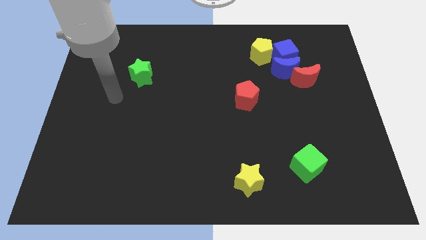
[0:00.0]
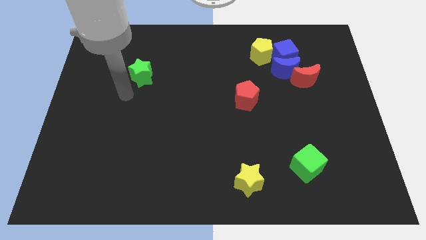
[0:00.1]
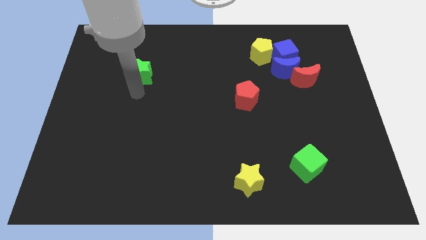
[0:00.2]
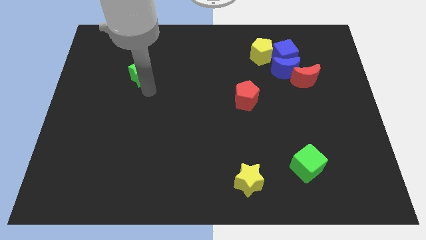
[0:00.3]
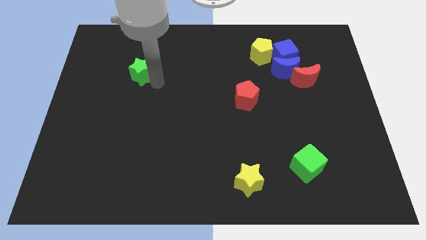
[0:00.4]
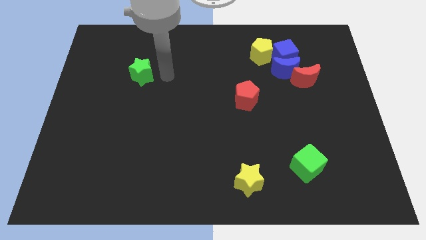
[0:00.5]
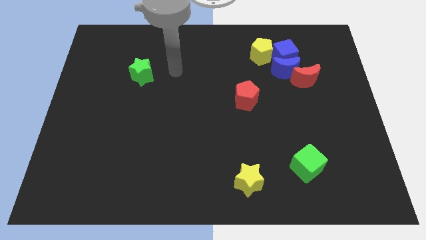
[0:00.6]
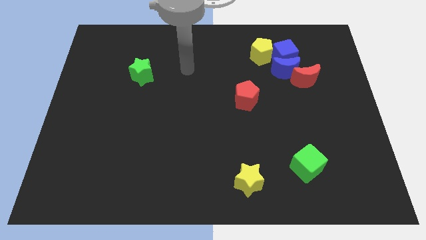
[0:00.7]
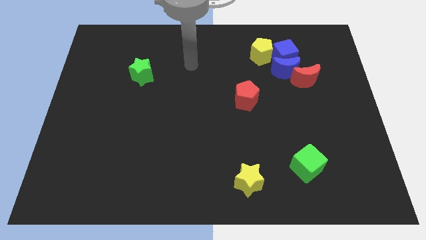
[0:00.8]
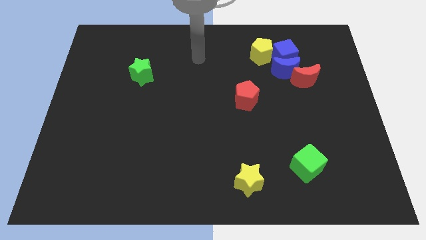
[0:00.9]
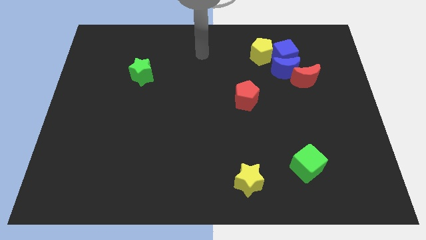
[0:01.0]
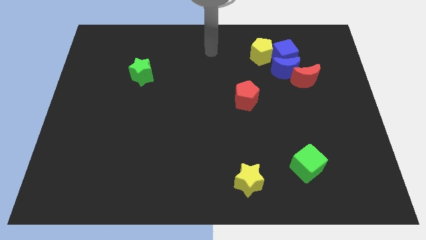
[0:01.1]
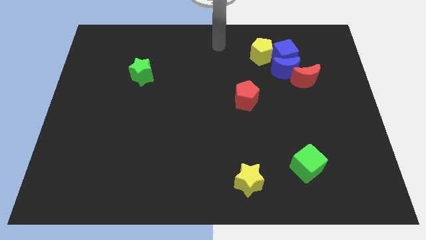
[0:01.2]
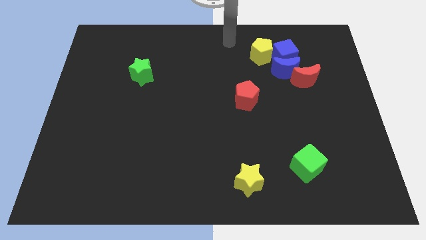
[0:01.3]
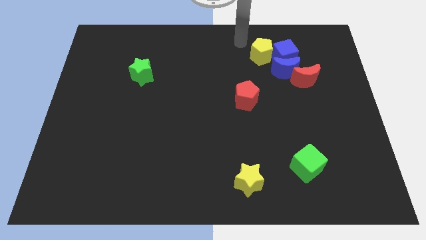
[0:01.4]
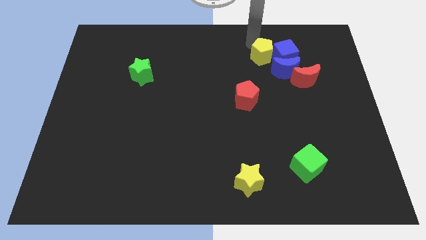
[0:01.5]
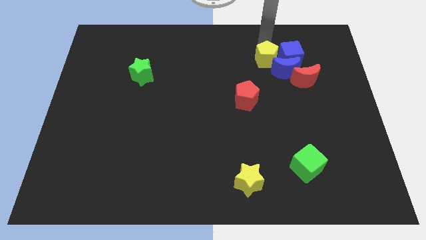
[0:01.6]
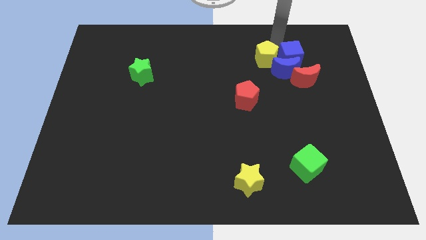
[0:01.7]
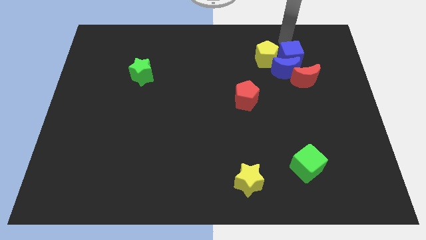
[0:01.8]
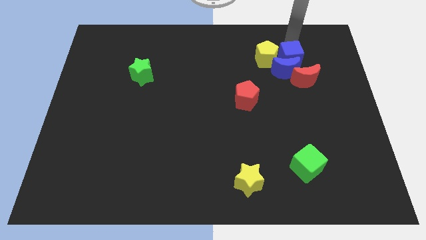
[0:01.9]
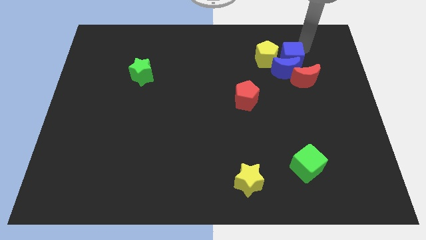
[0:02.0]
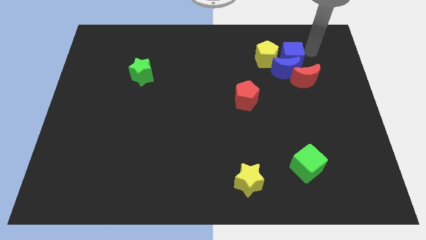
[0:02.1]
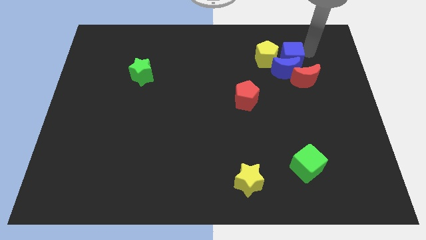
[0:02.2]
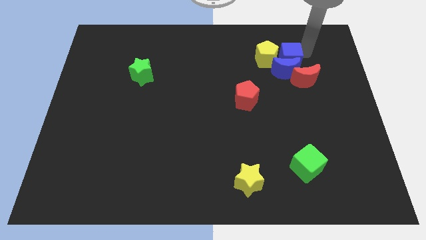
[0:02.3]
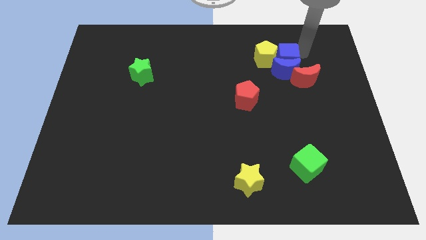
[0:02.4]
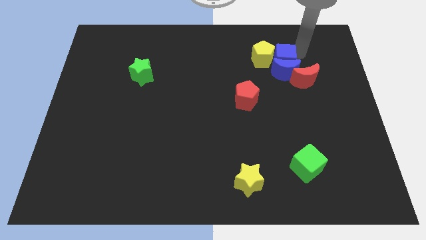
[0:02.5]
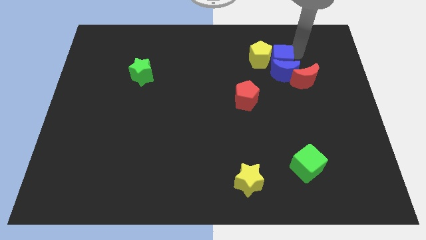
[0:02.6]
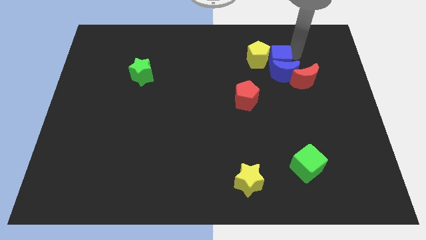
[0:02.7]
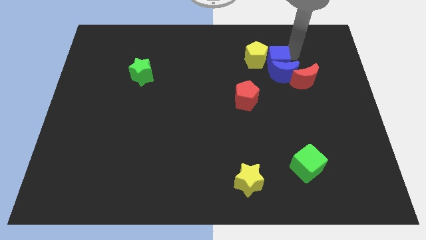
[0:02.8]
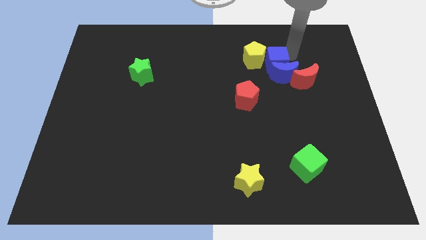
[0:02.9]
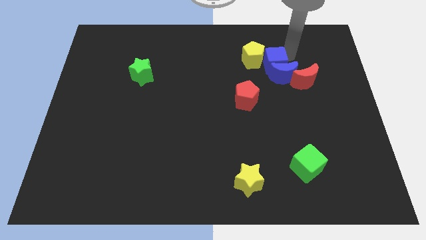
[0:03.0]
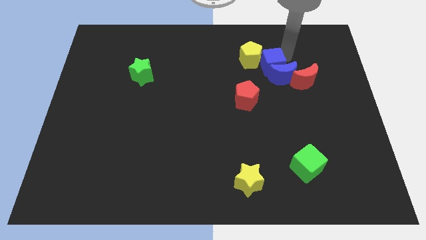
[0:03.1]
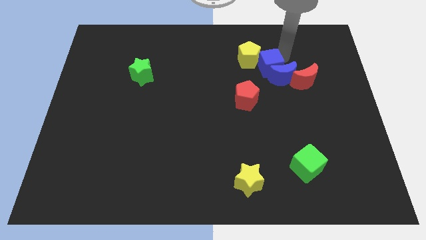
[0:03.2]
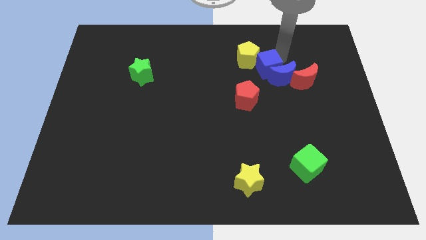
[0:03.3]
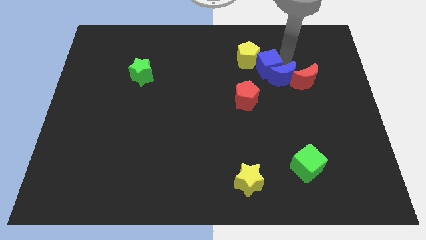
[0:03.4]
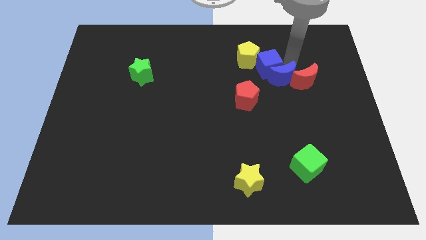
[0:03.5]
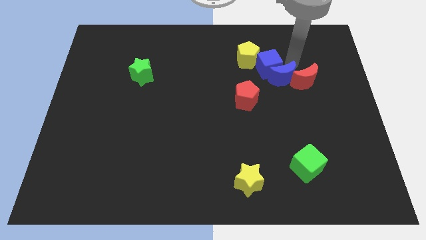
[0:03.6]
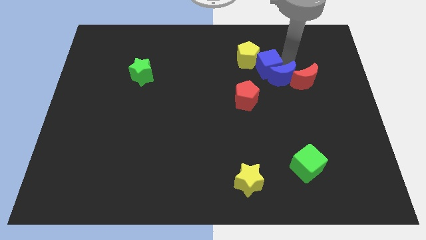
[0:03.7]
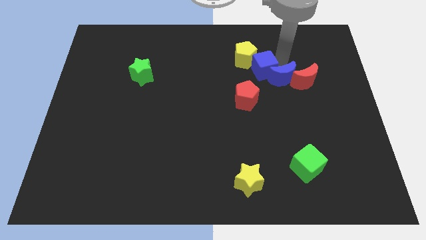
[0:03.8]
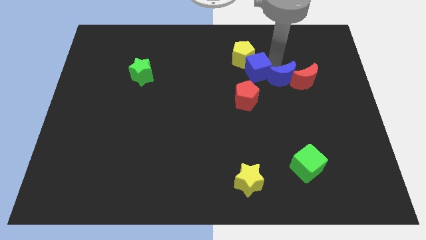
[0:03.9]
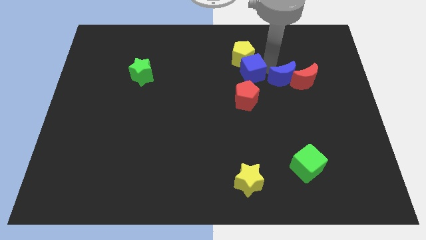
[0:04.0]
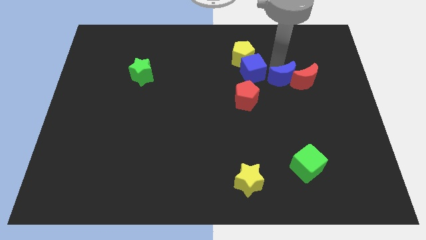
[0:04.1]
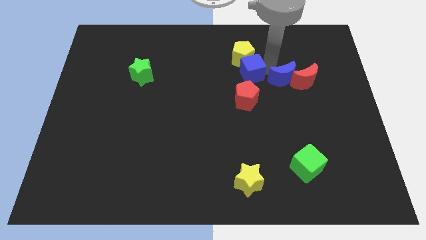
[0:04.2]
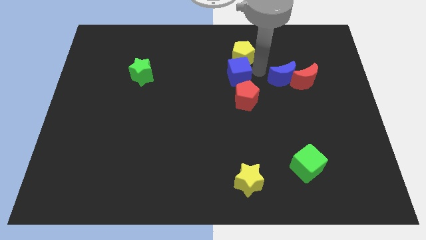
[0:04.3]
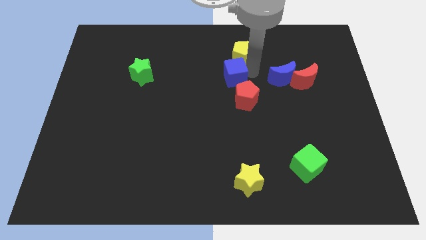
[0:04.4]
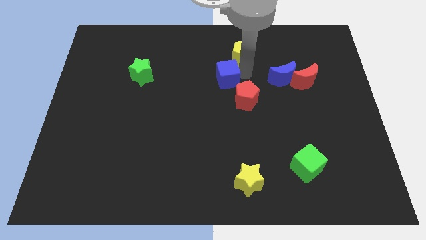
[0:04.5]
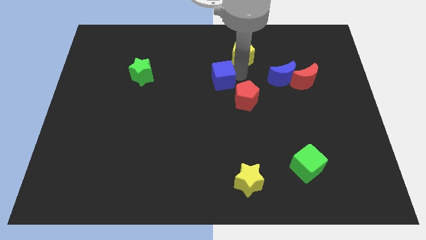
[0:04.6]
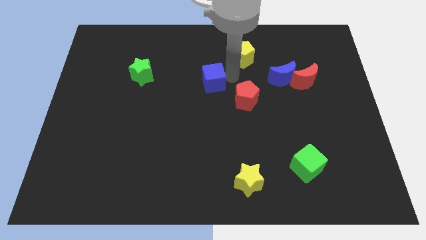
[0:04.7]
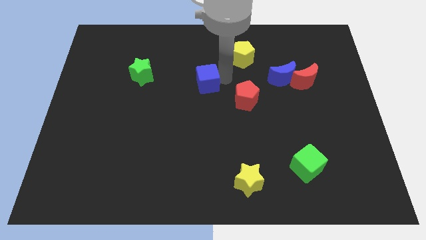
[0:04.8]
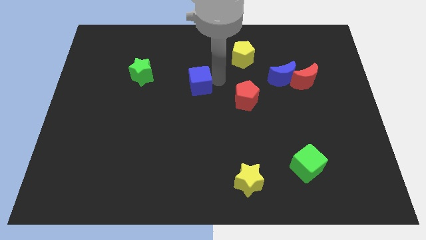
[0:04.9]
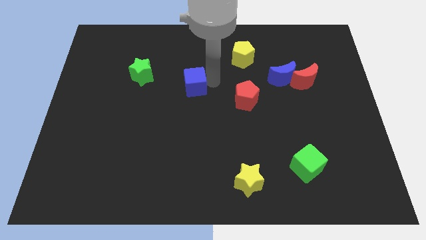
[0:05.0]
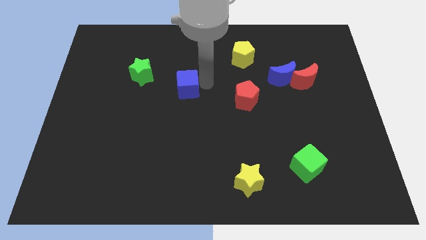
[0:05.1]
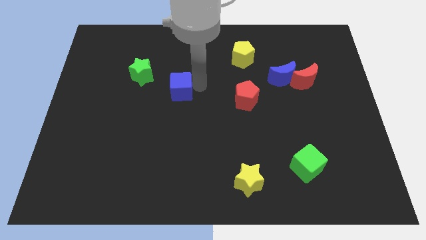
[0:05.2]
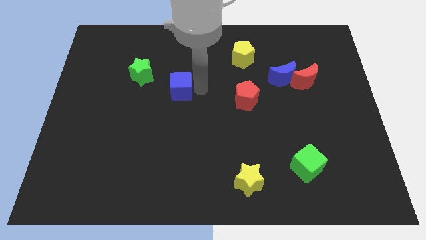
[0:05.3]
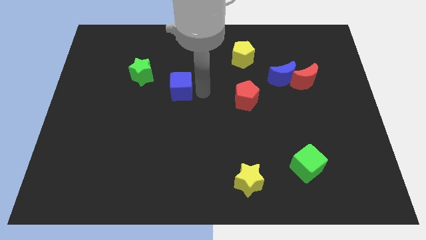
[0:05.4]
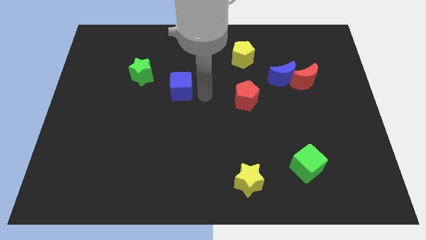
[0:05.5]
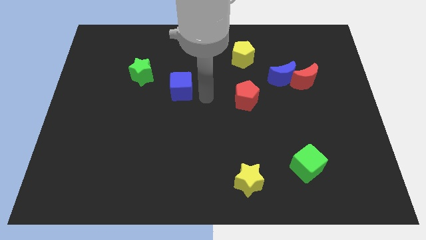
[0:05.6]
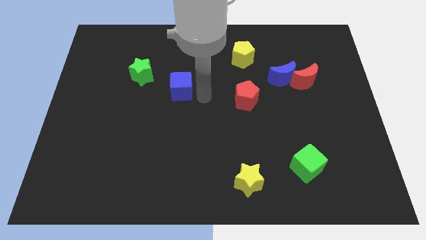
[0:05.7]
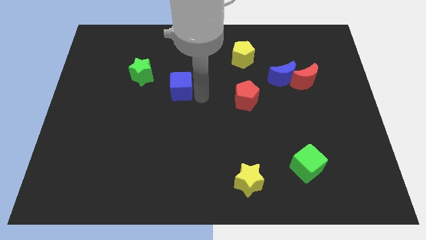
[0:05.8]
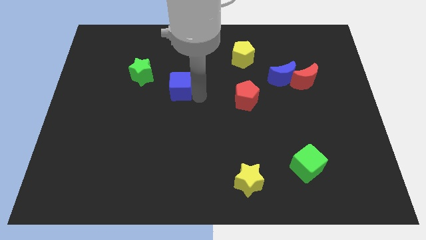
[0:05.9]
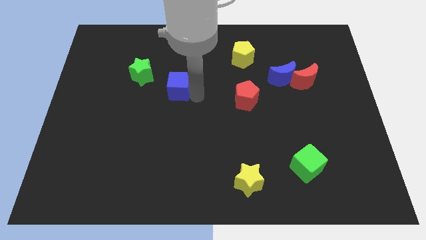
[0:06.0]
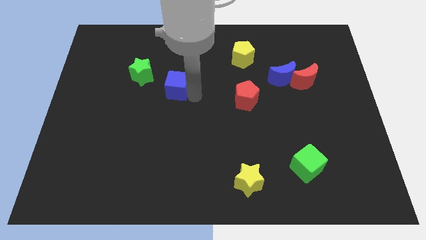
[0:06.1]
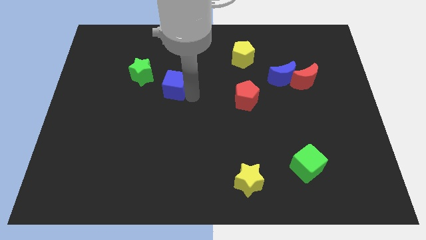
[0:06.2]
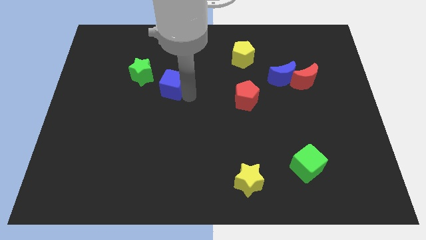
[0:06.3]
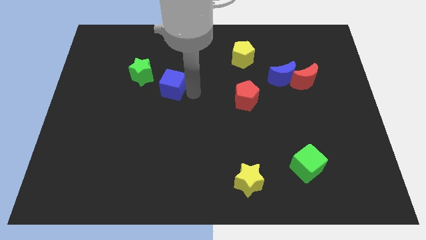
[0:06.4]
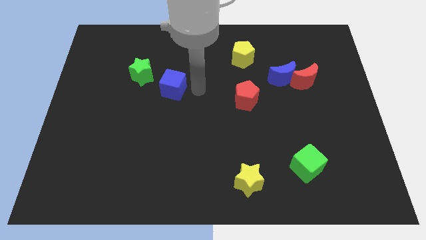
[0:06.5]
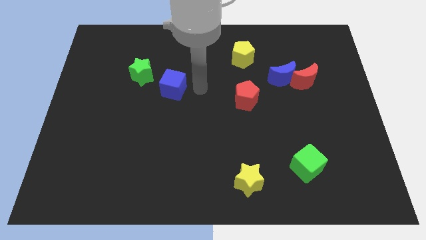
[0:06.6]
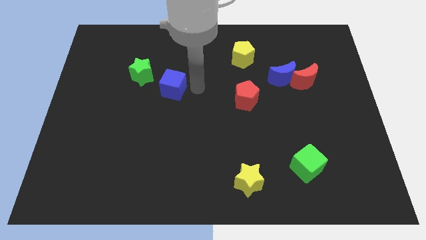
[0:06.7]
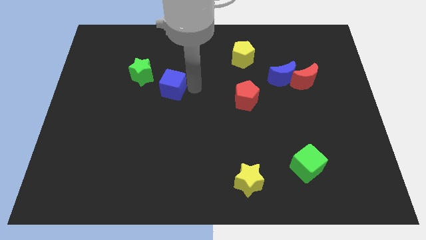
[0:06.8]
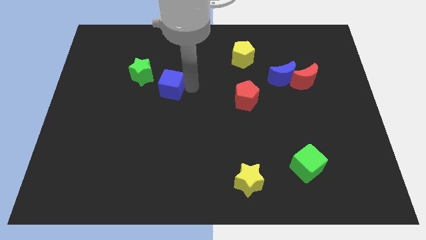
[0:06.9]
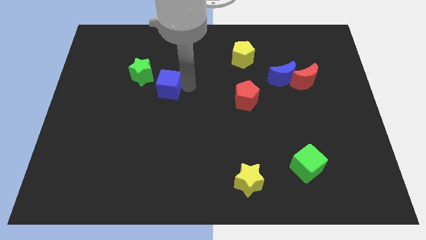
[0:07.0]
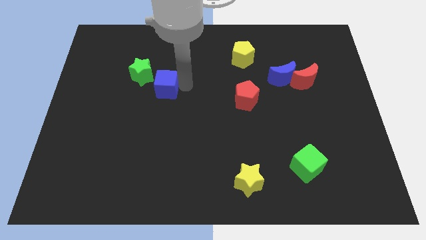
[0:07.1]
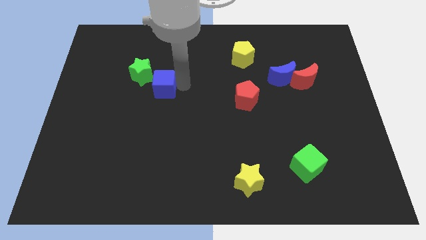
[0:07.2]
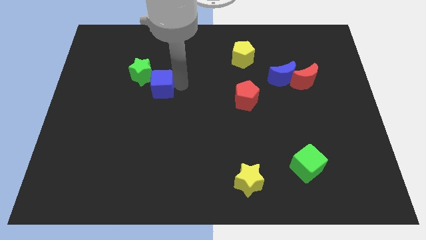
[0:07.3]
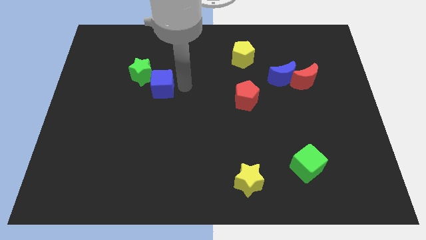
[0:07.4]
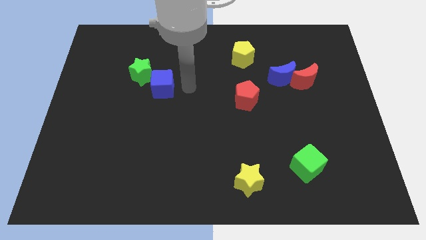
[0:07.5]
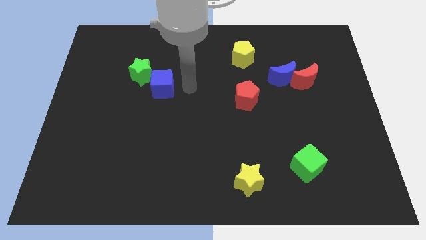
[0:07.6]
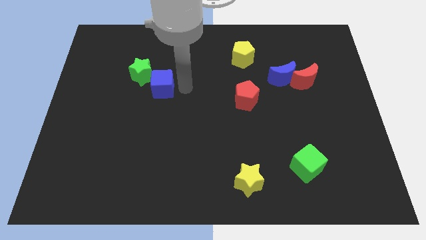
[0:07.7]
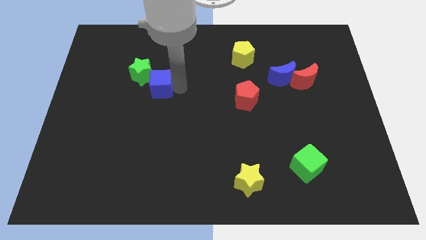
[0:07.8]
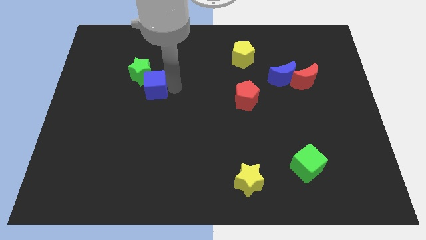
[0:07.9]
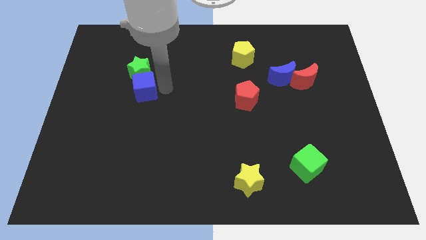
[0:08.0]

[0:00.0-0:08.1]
slide the blue cube diagonally down and to the left of the green star
